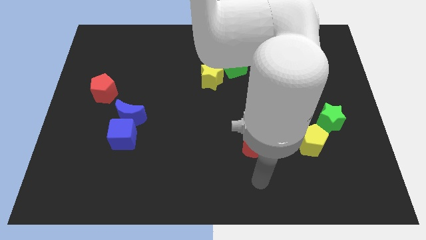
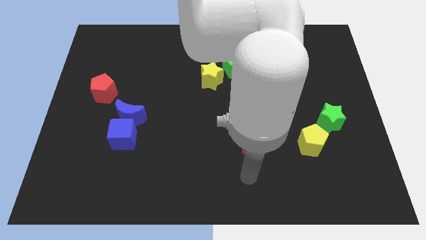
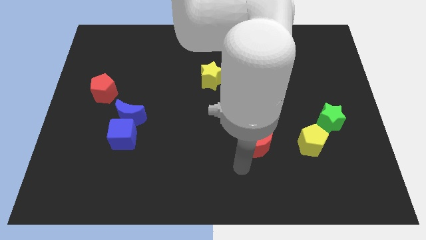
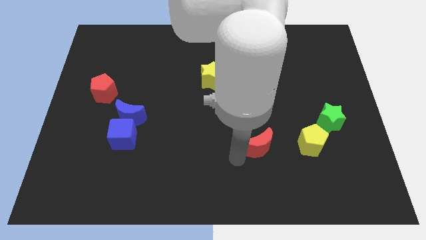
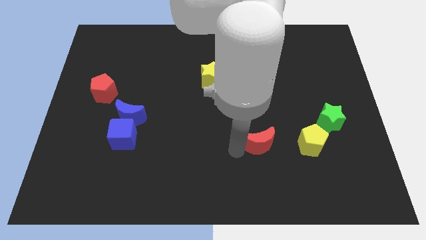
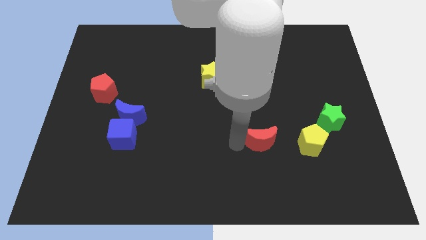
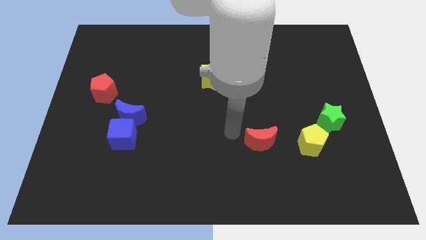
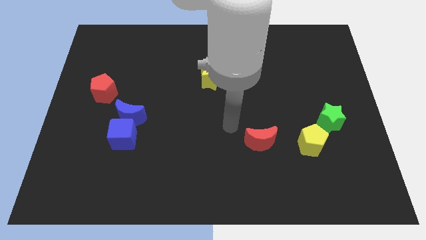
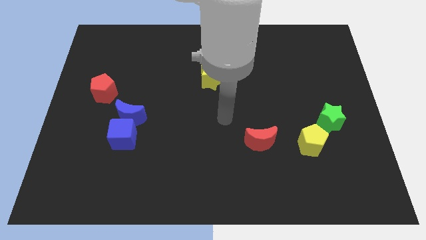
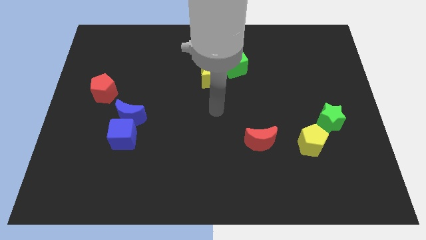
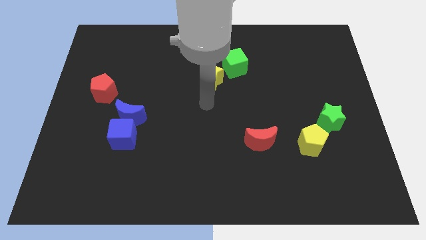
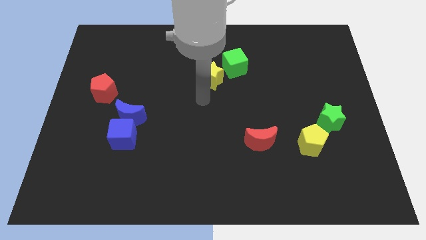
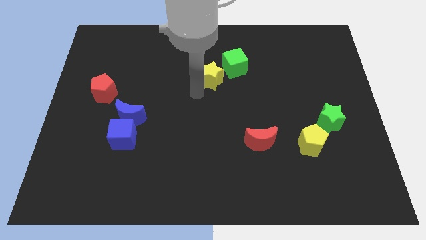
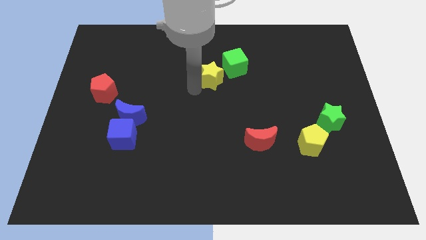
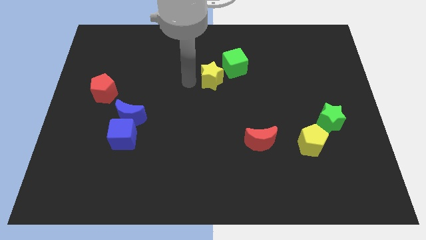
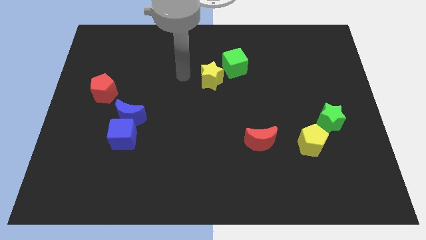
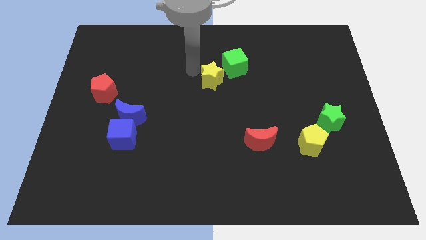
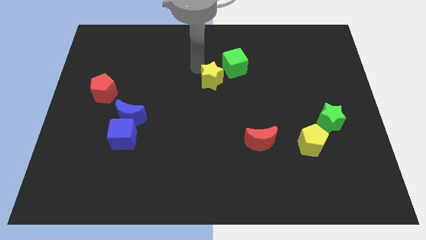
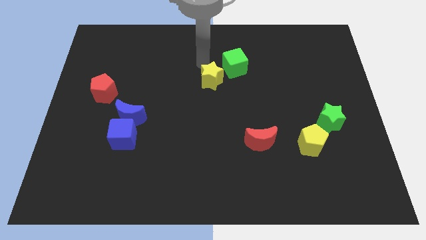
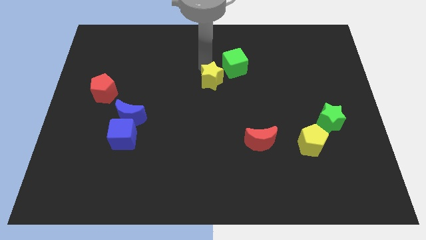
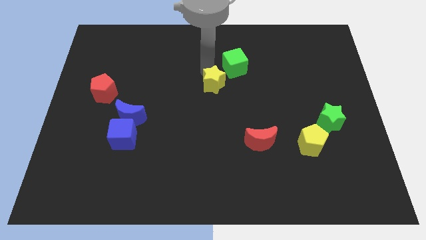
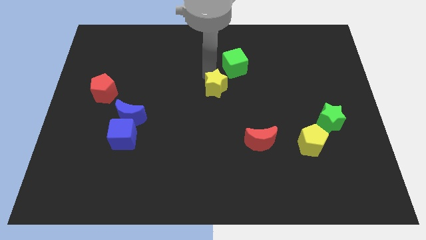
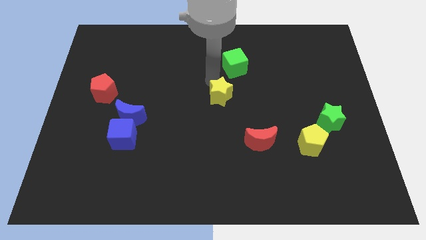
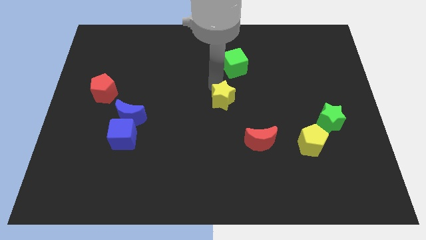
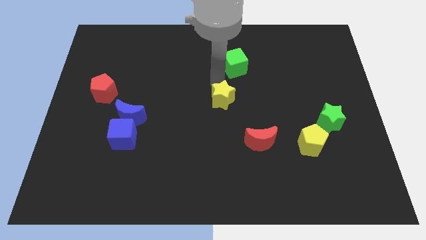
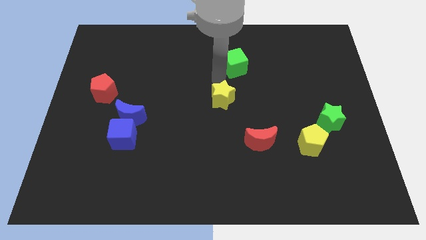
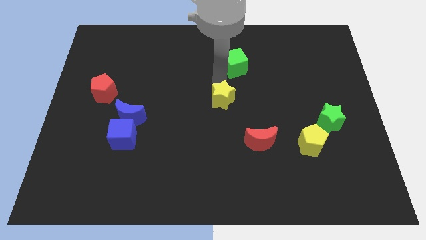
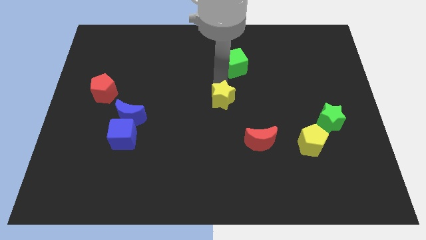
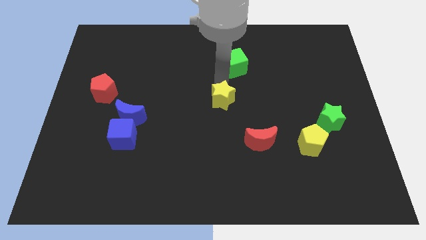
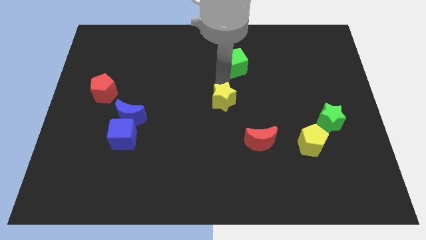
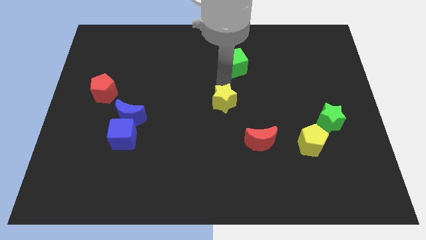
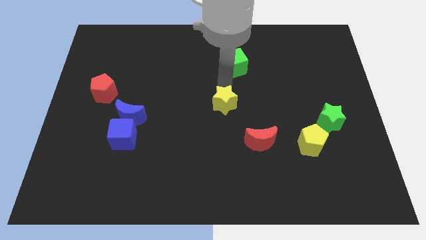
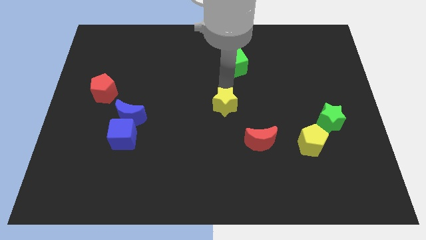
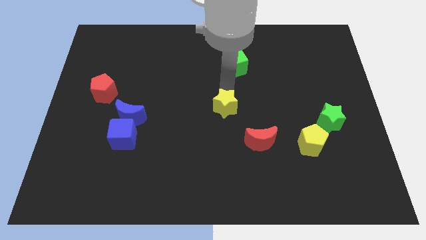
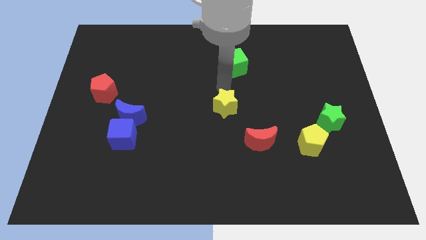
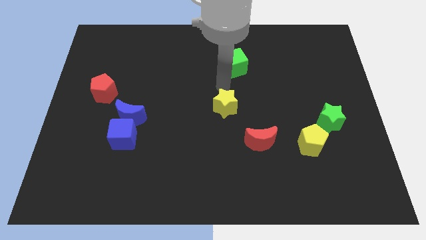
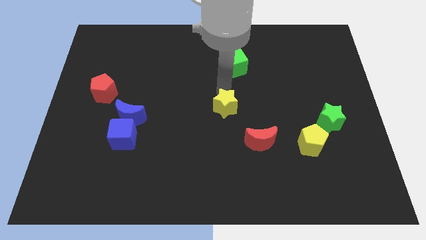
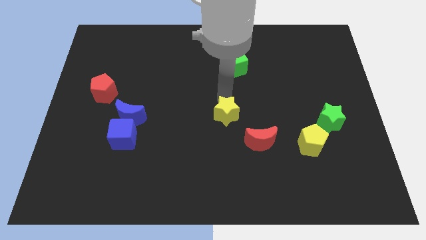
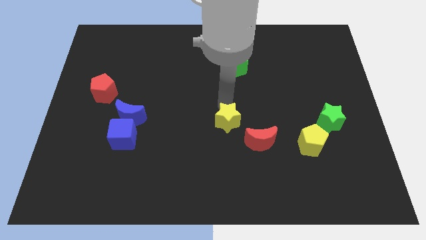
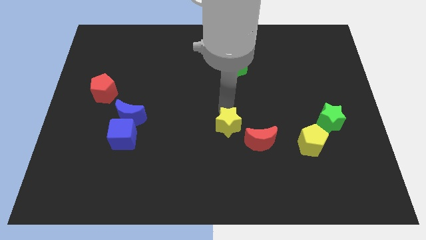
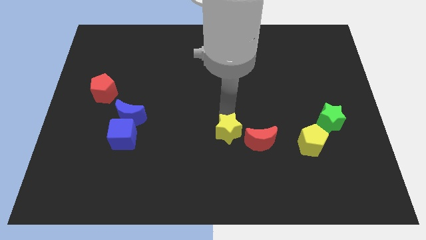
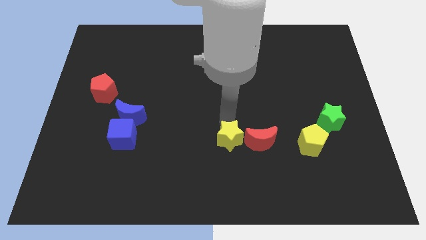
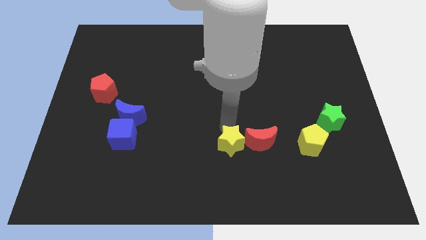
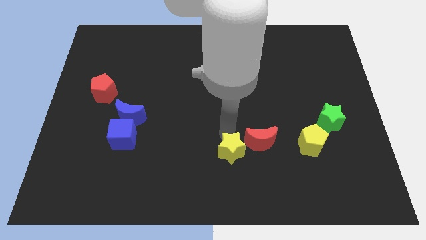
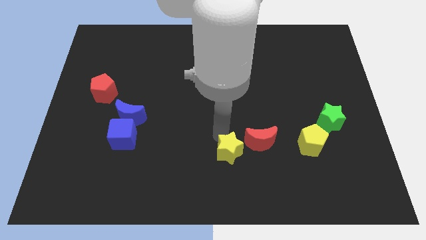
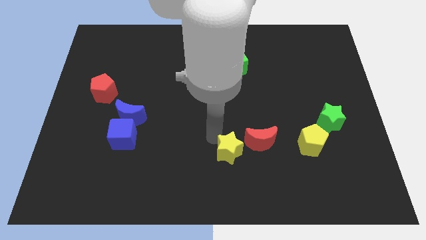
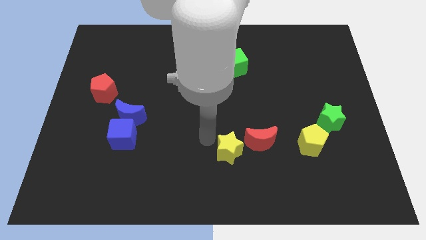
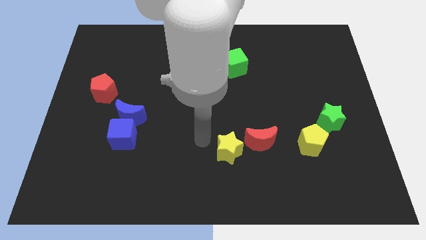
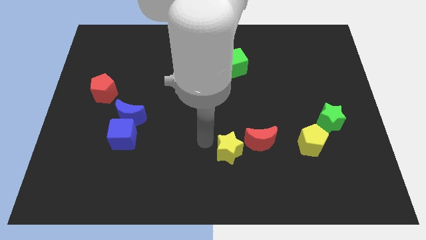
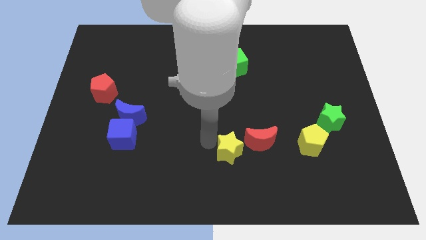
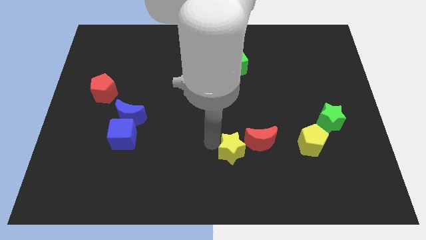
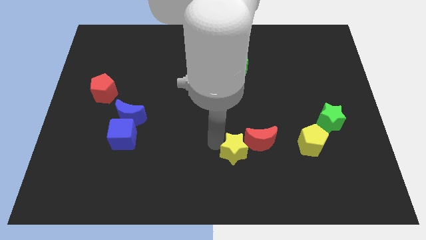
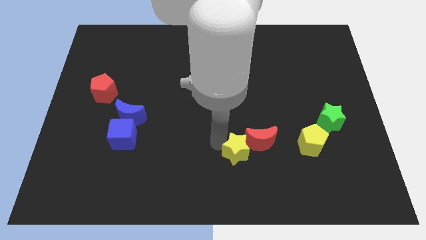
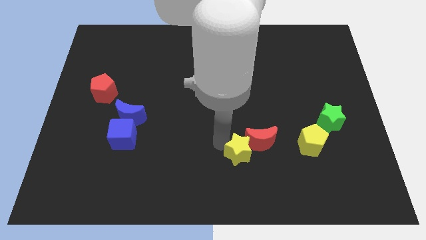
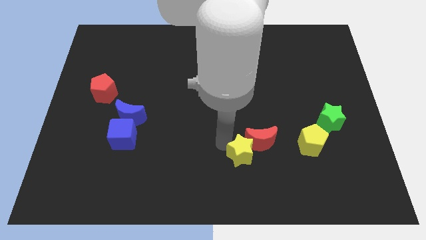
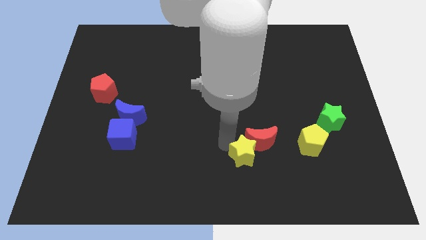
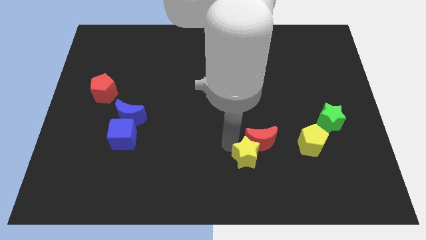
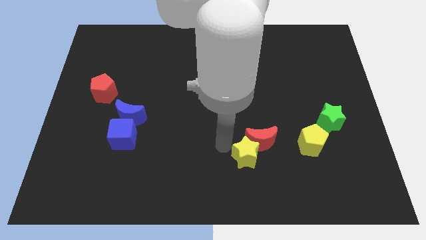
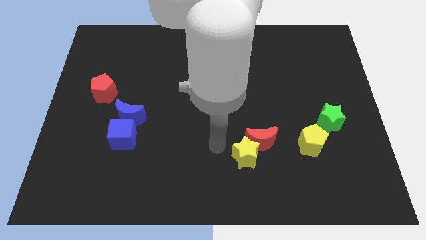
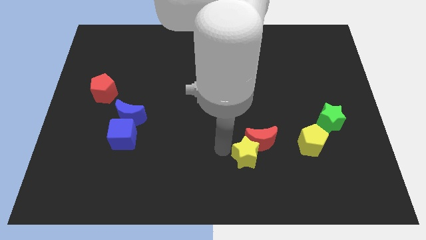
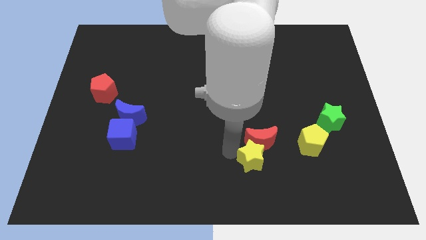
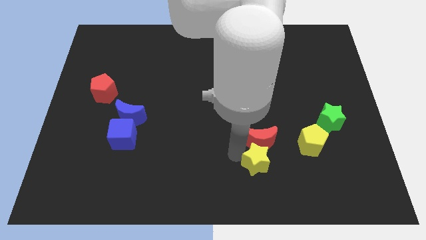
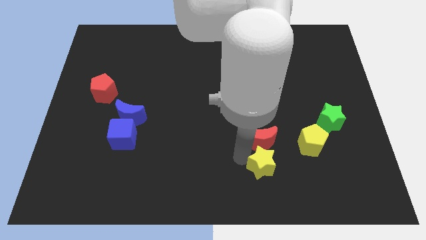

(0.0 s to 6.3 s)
slide the yellow star downwards and to the right

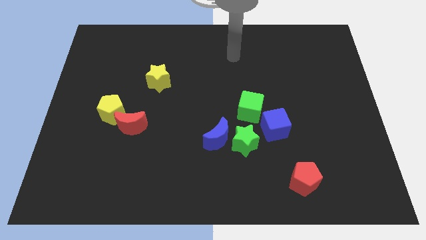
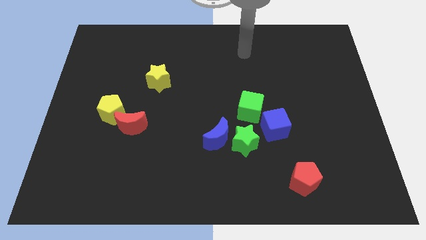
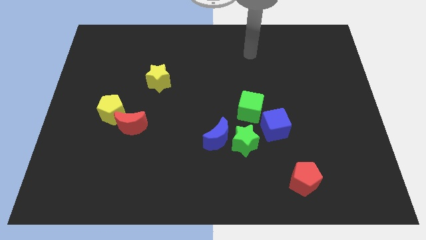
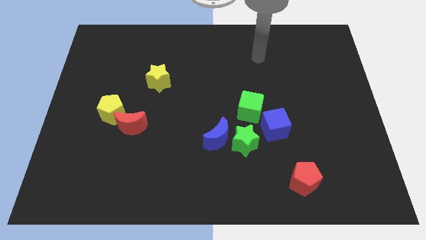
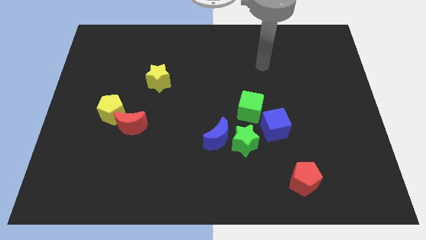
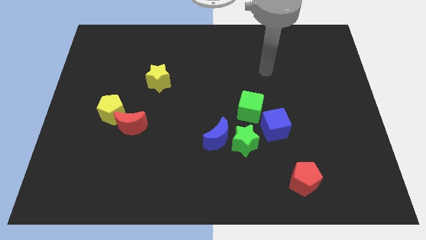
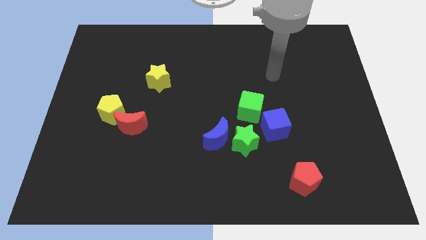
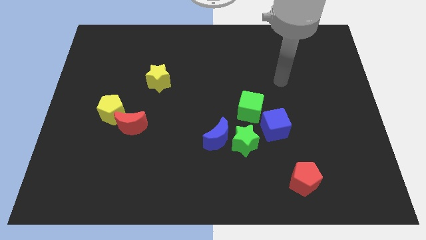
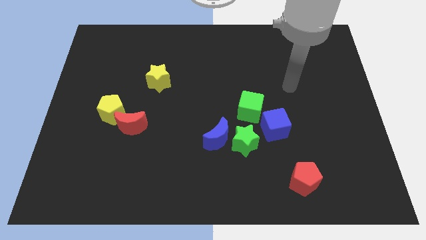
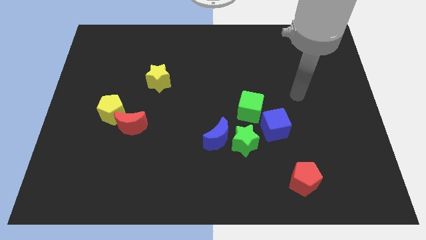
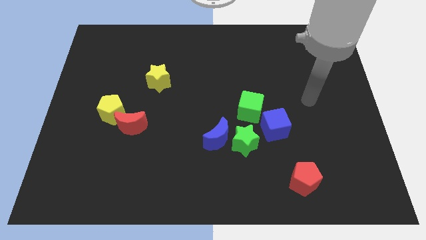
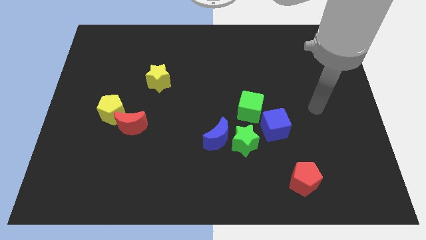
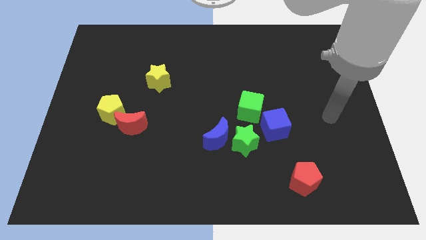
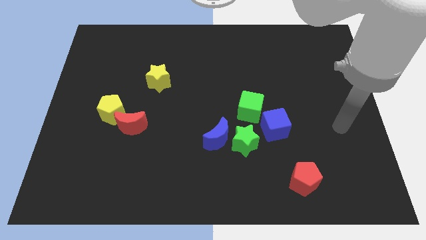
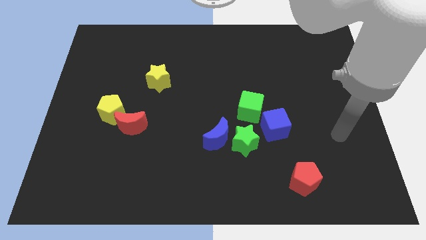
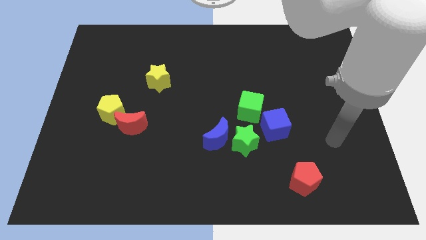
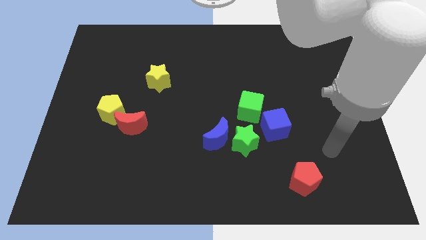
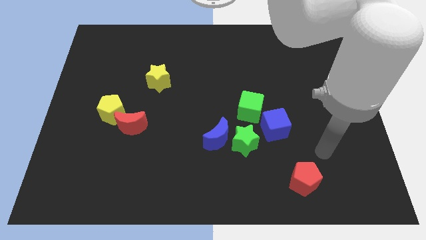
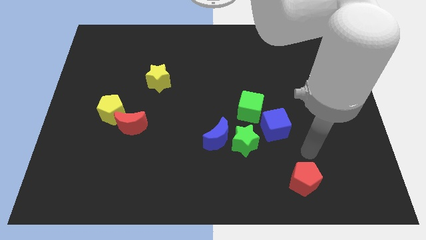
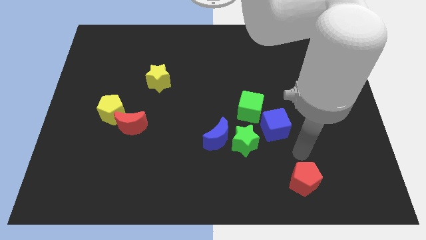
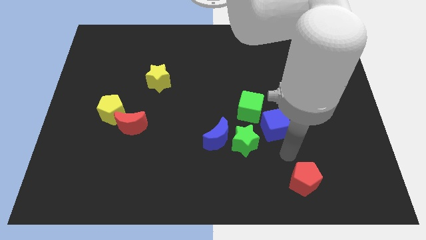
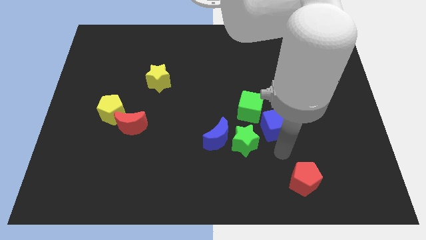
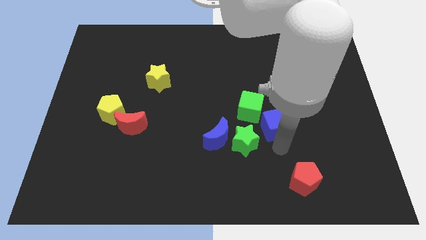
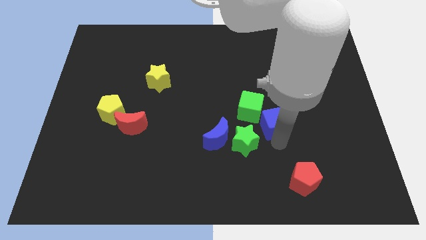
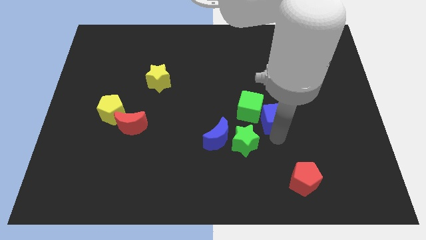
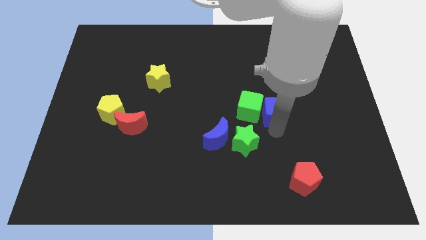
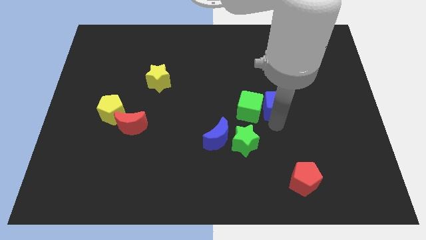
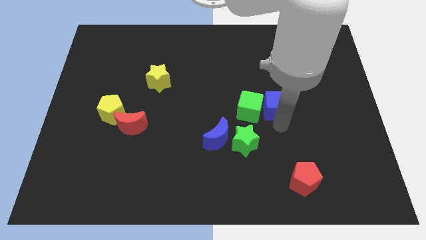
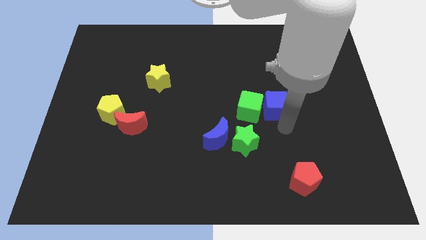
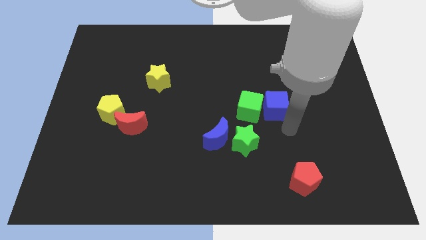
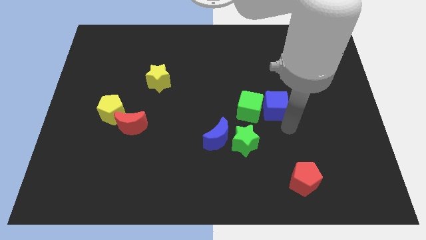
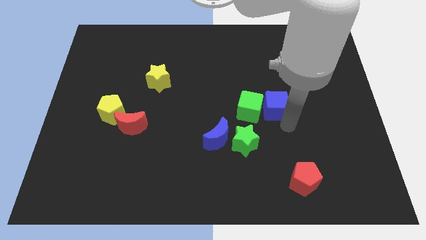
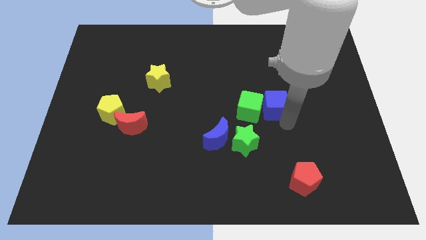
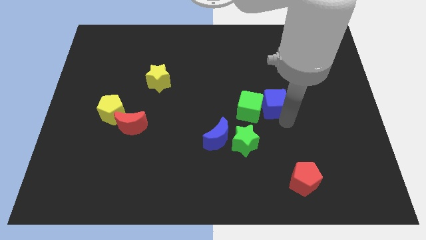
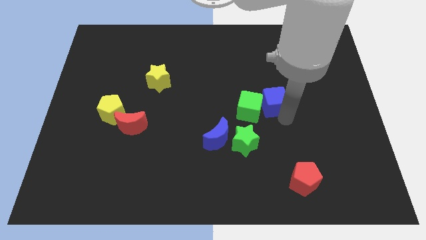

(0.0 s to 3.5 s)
slide the blue cube up a little
